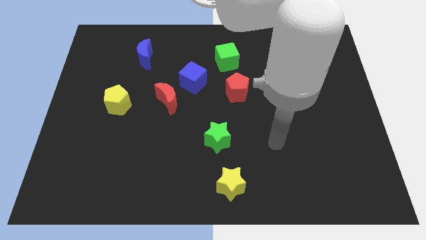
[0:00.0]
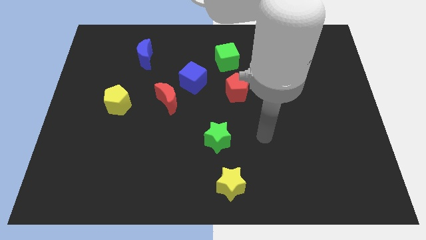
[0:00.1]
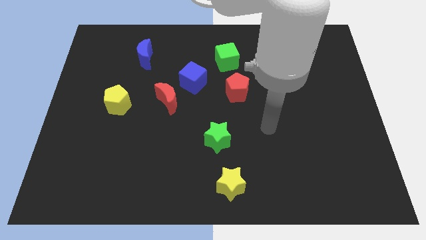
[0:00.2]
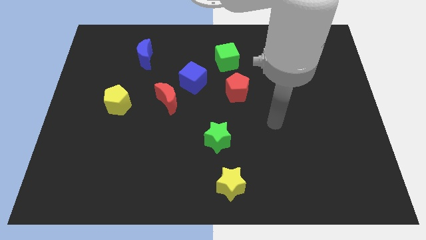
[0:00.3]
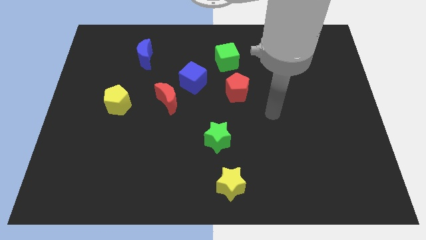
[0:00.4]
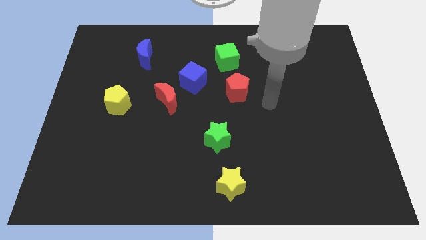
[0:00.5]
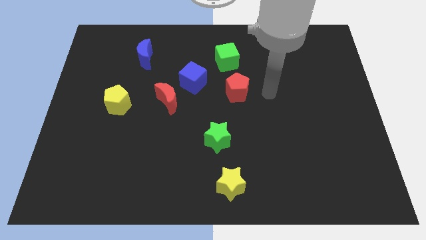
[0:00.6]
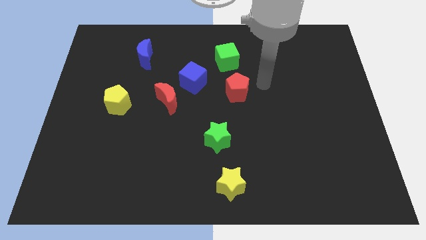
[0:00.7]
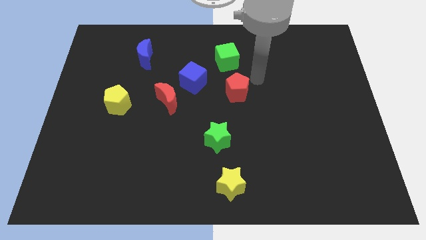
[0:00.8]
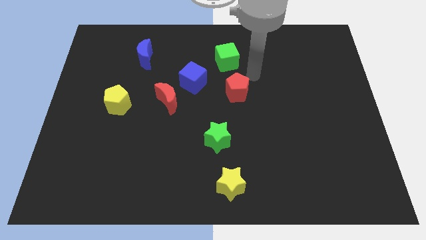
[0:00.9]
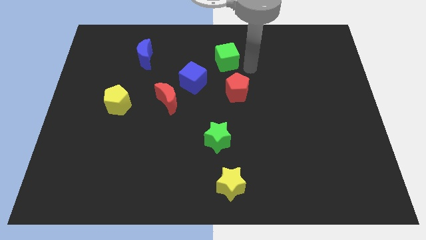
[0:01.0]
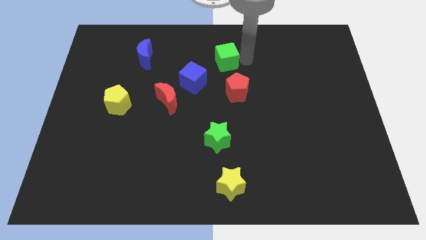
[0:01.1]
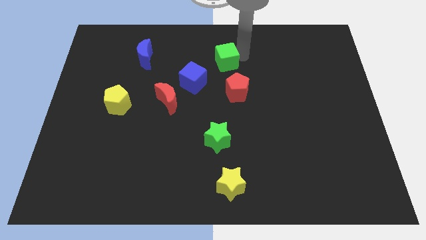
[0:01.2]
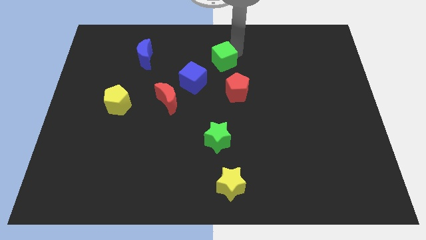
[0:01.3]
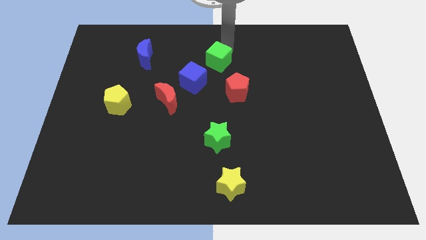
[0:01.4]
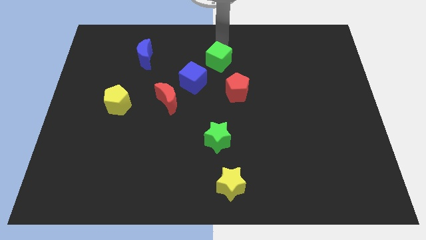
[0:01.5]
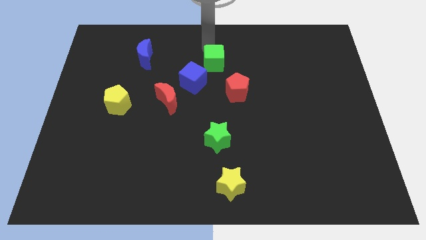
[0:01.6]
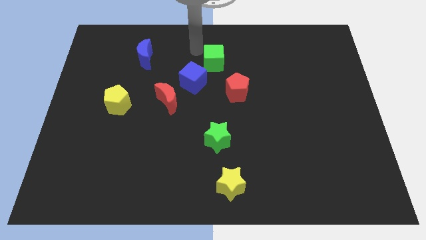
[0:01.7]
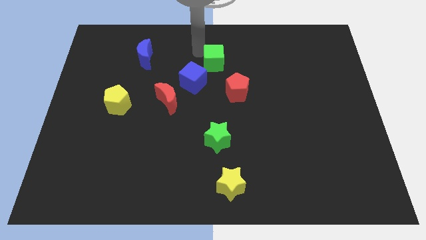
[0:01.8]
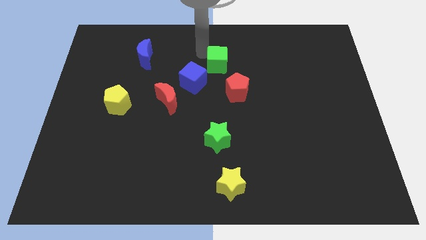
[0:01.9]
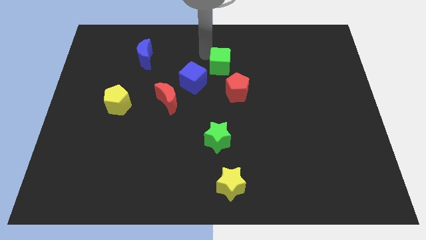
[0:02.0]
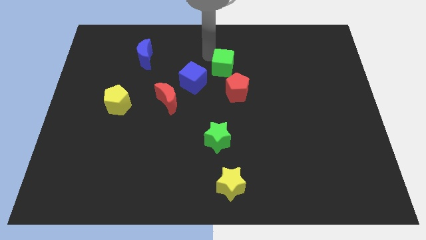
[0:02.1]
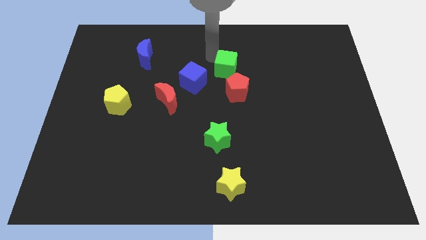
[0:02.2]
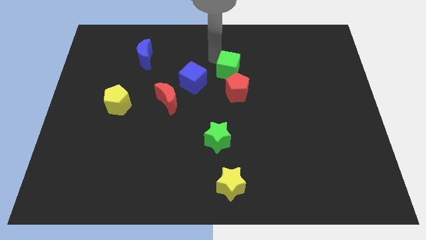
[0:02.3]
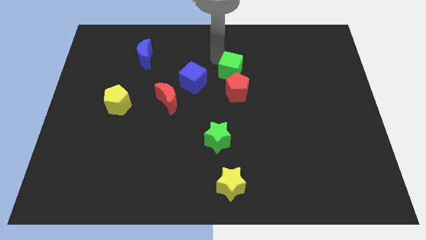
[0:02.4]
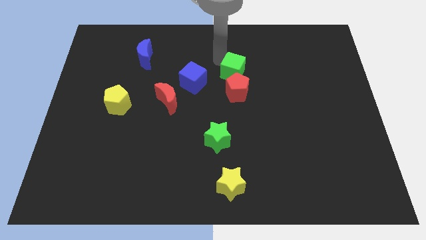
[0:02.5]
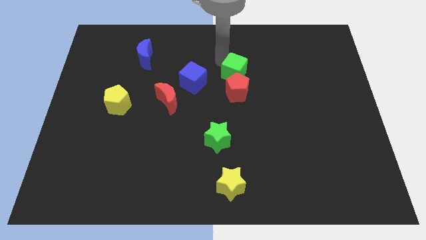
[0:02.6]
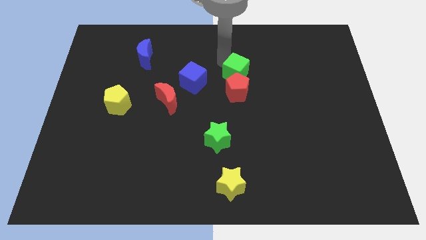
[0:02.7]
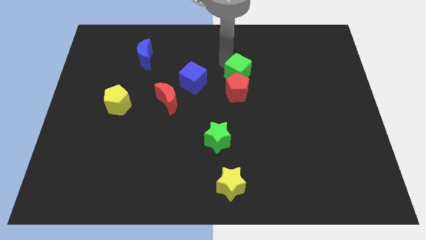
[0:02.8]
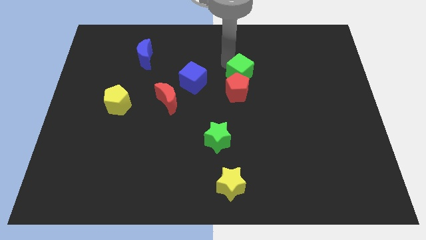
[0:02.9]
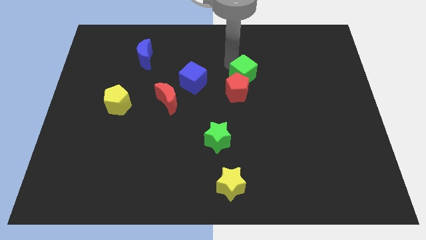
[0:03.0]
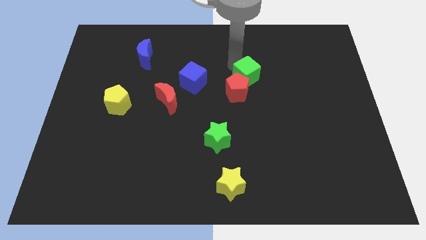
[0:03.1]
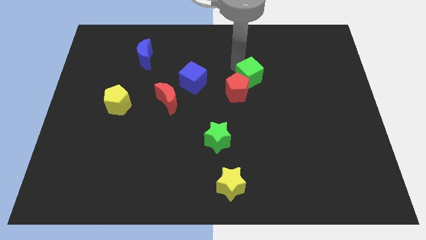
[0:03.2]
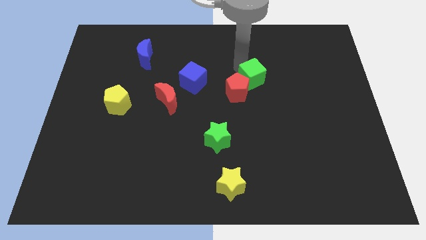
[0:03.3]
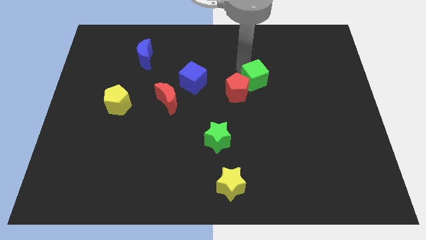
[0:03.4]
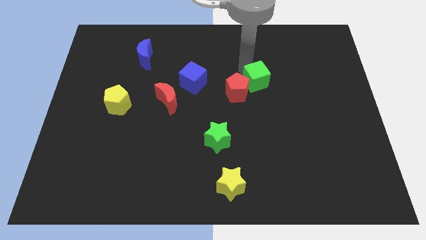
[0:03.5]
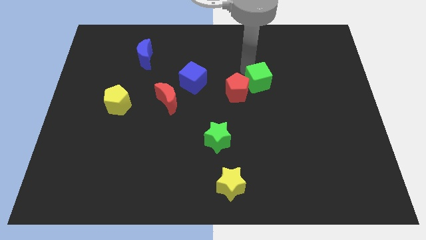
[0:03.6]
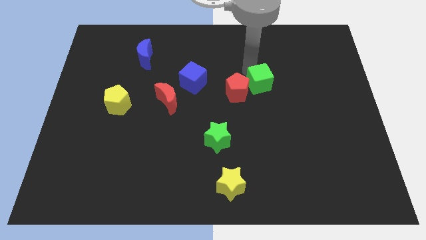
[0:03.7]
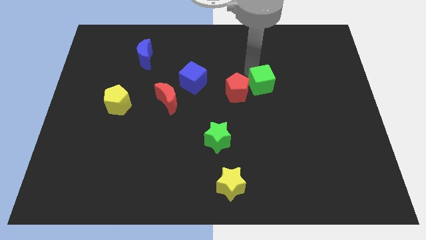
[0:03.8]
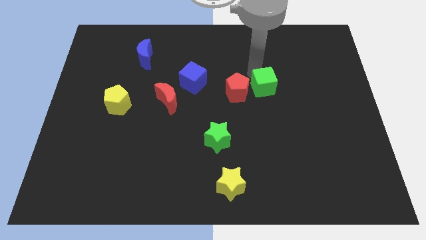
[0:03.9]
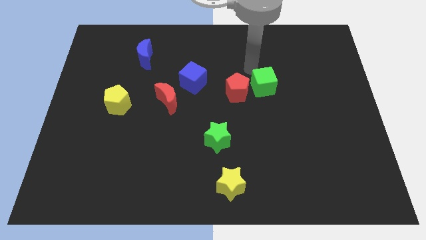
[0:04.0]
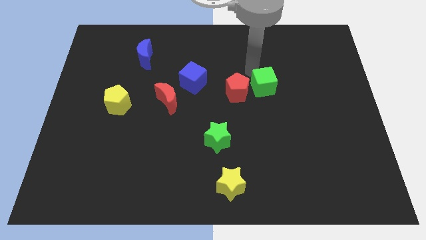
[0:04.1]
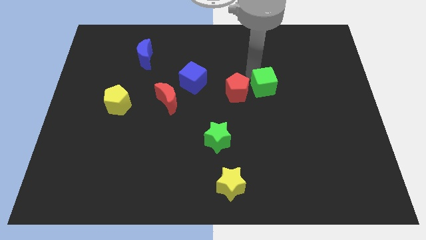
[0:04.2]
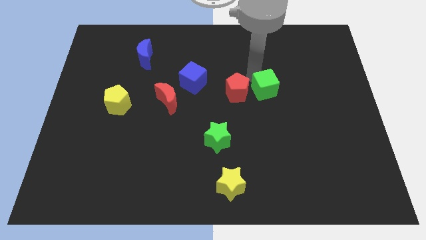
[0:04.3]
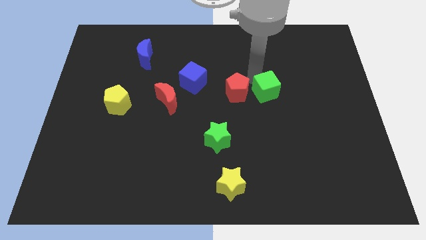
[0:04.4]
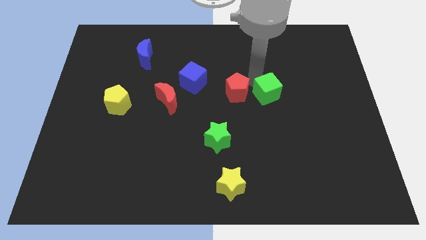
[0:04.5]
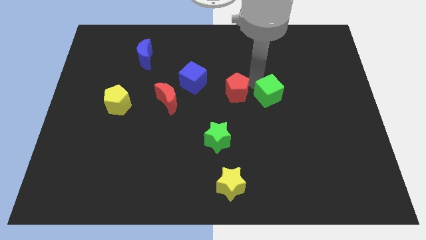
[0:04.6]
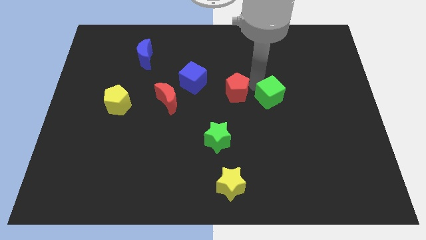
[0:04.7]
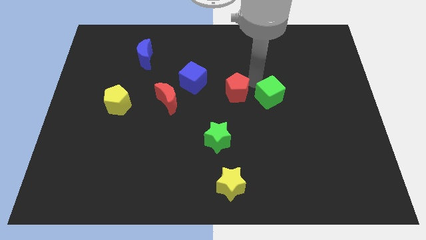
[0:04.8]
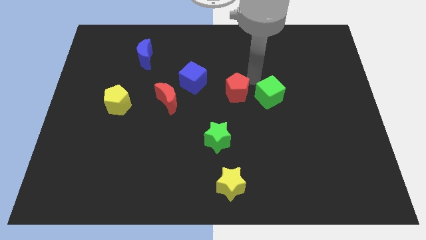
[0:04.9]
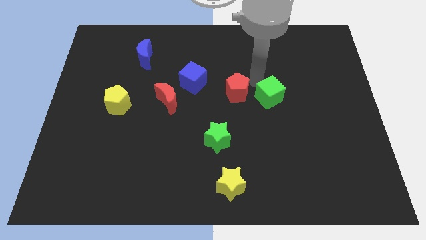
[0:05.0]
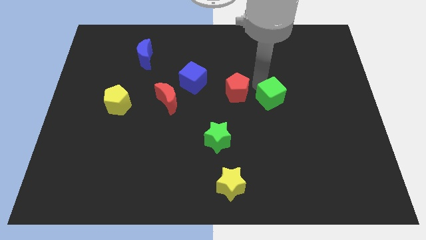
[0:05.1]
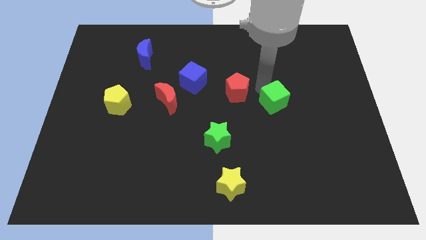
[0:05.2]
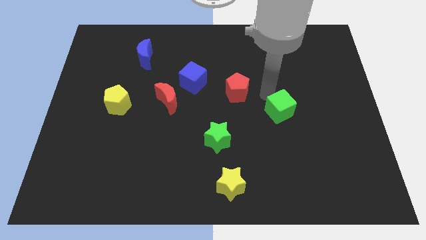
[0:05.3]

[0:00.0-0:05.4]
move the green cube down and then to the right

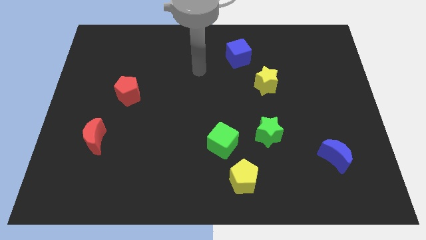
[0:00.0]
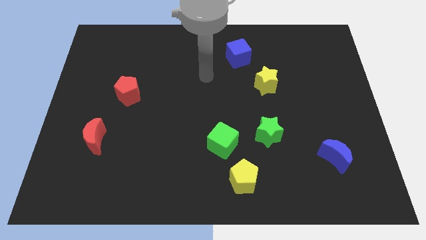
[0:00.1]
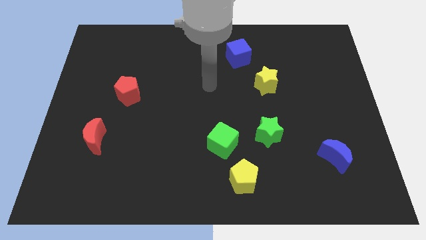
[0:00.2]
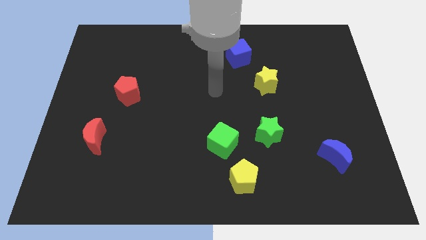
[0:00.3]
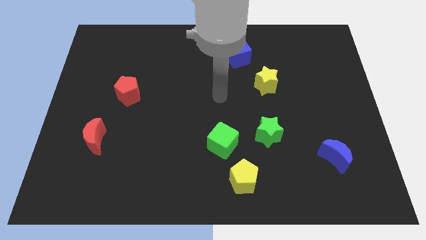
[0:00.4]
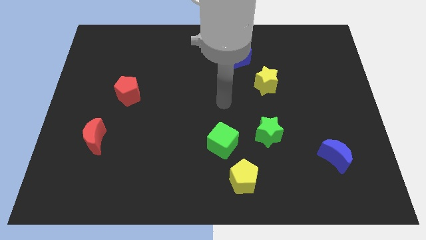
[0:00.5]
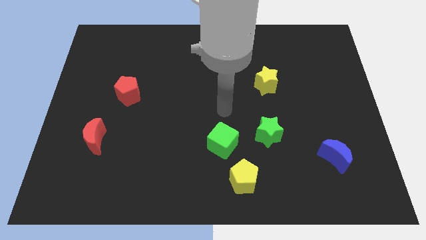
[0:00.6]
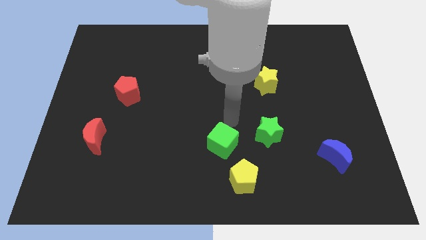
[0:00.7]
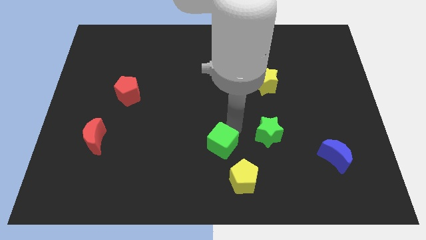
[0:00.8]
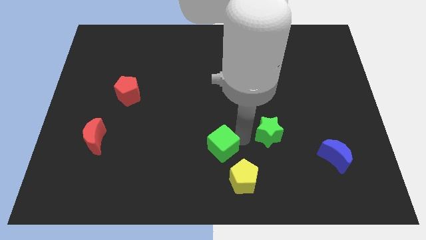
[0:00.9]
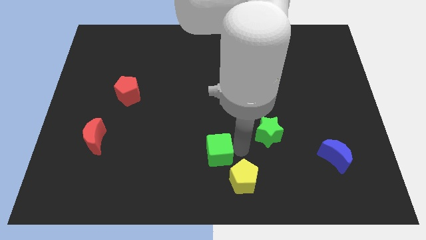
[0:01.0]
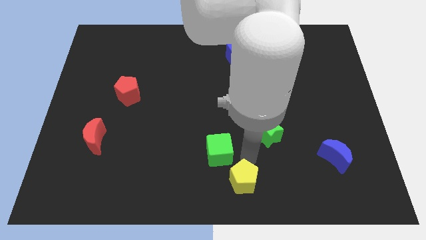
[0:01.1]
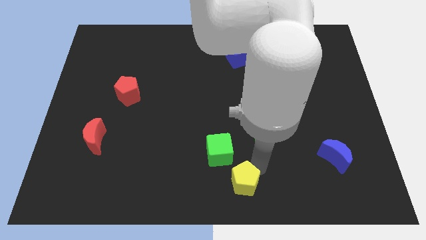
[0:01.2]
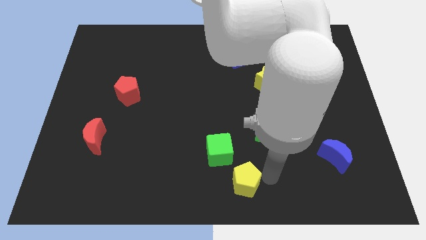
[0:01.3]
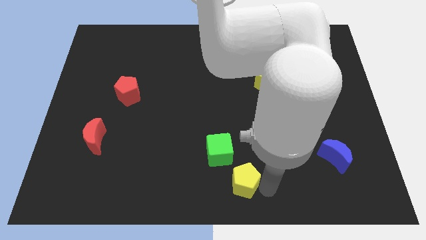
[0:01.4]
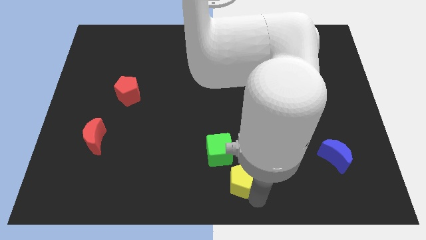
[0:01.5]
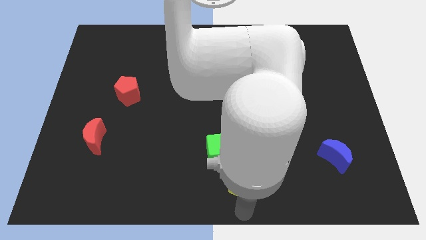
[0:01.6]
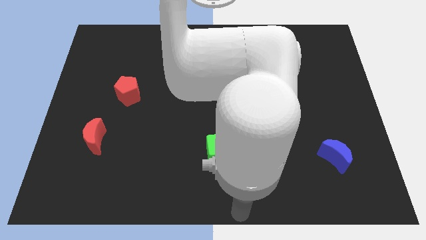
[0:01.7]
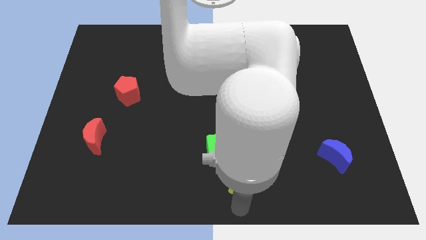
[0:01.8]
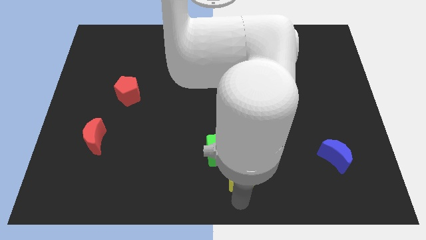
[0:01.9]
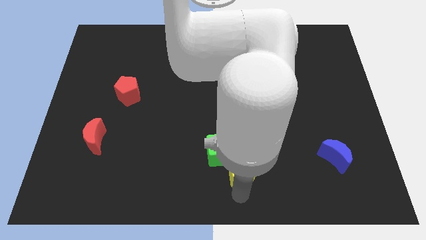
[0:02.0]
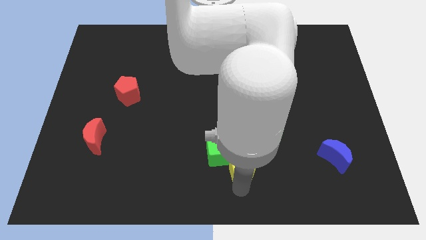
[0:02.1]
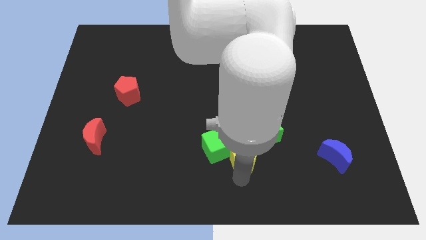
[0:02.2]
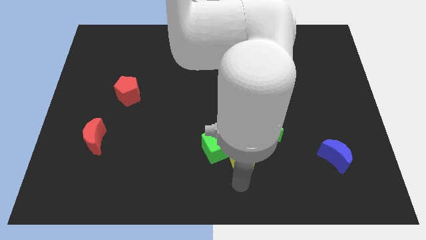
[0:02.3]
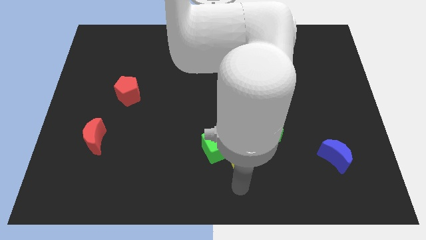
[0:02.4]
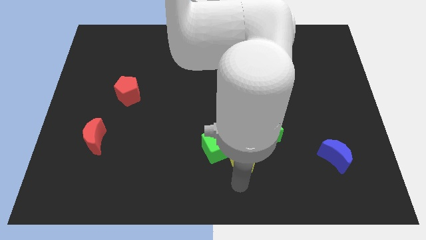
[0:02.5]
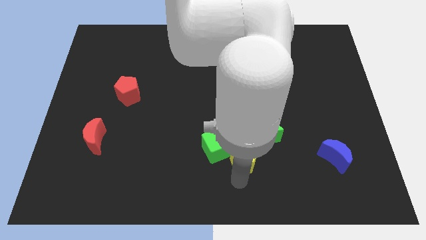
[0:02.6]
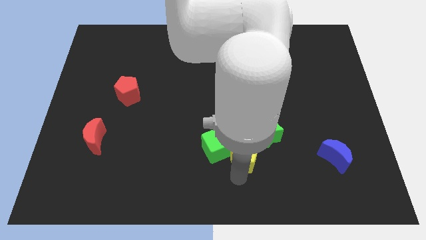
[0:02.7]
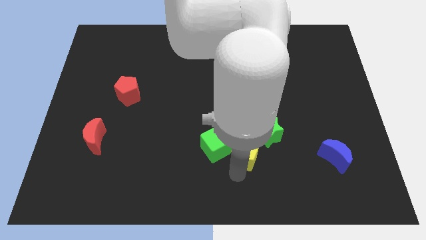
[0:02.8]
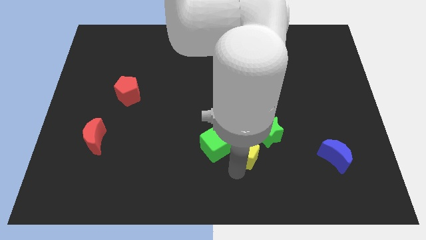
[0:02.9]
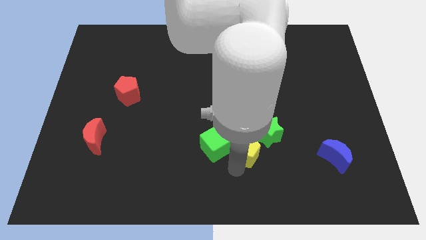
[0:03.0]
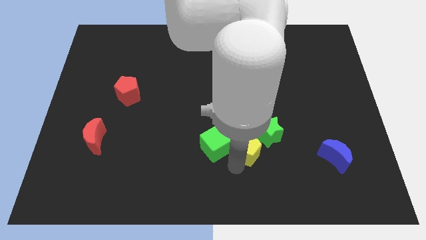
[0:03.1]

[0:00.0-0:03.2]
move the yellow pentagon upwards a bit
